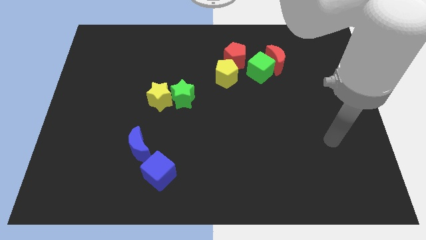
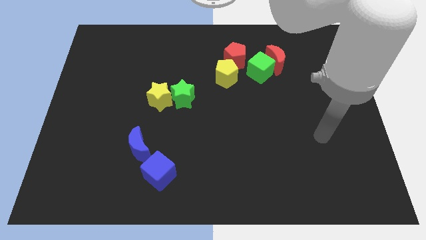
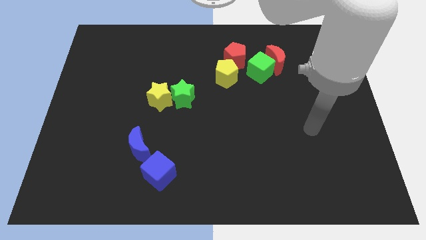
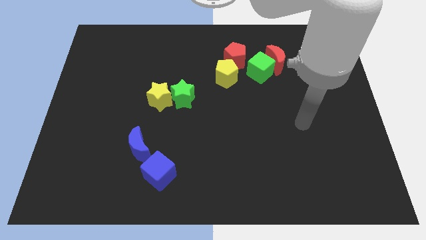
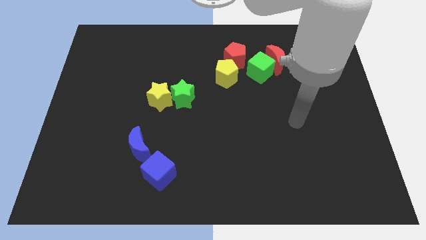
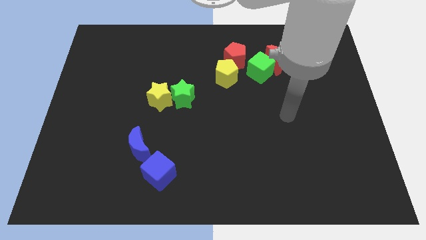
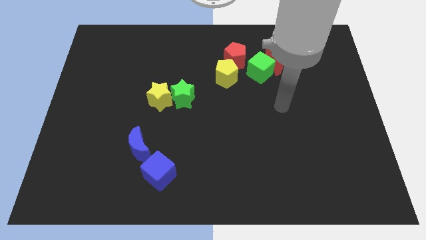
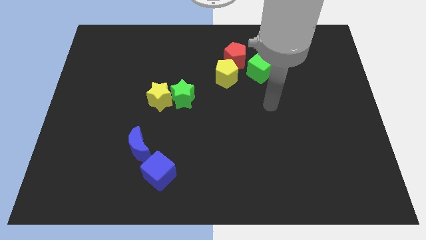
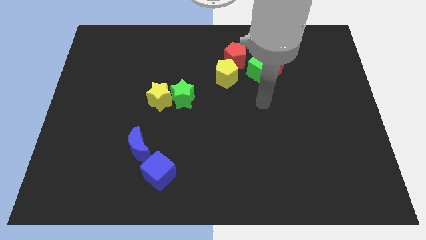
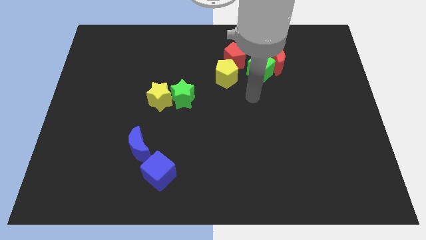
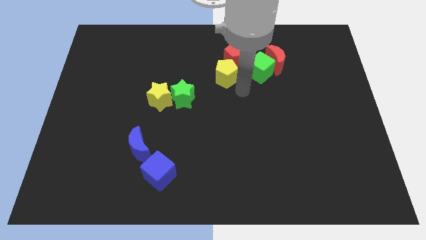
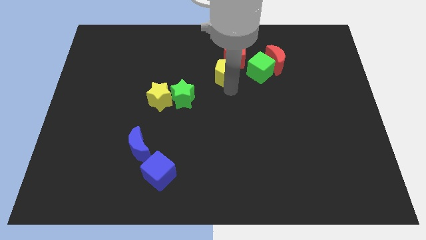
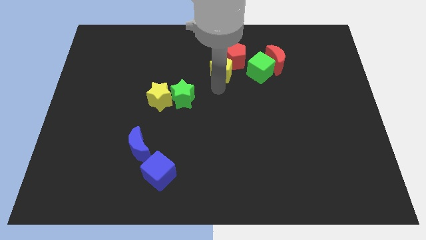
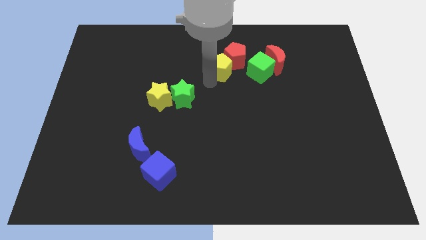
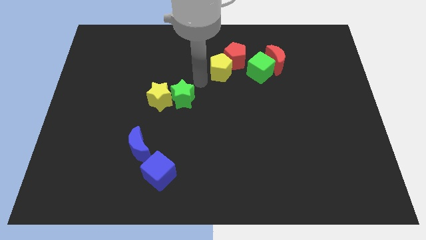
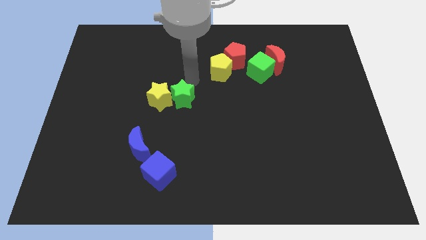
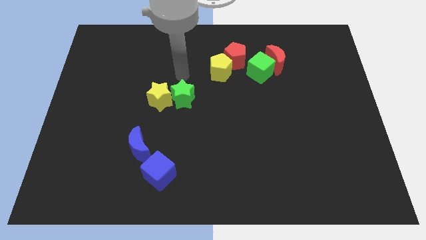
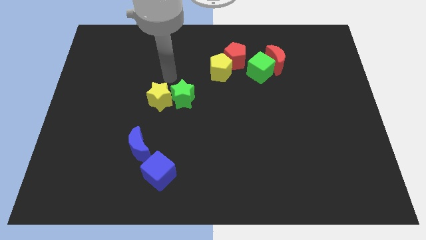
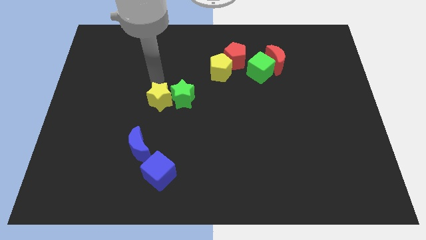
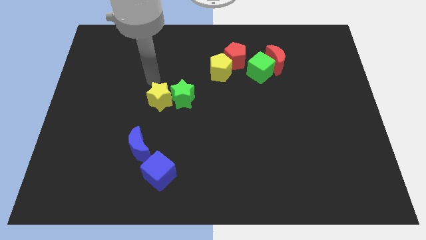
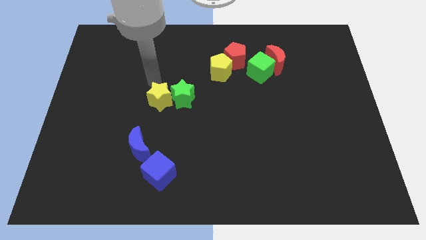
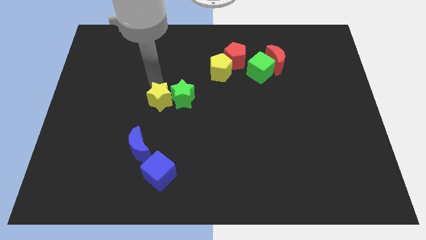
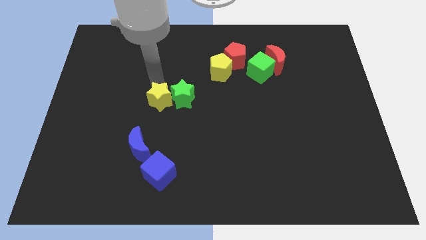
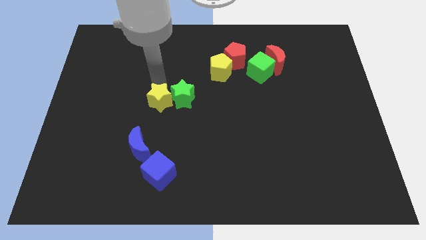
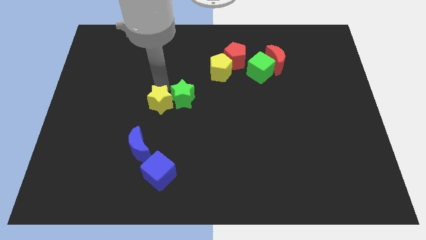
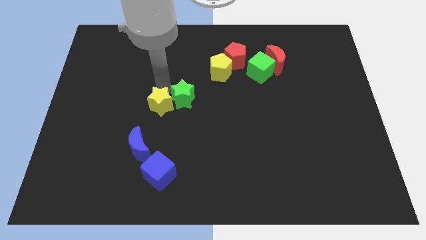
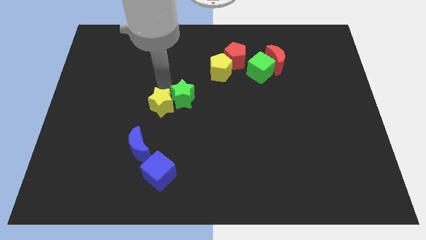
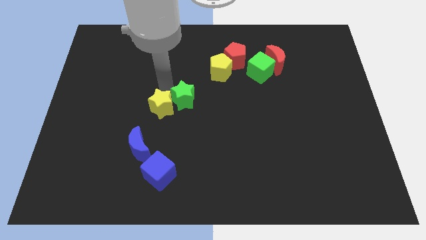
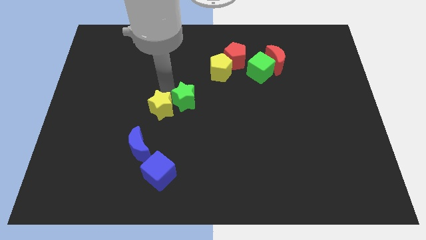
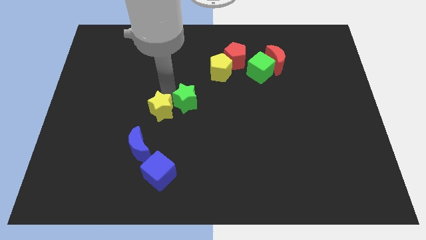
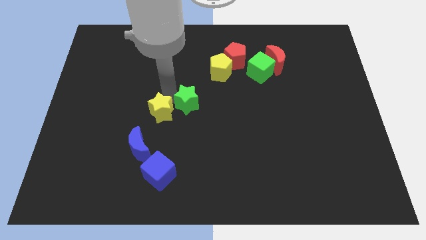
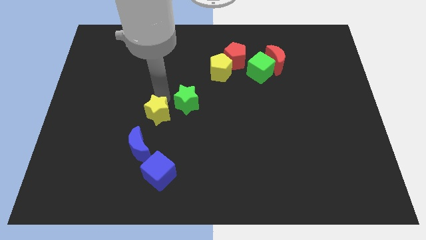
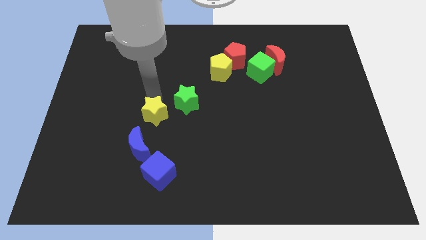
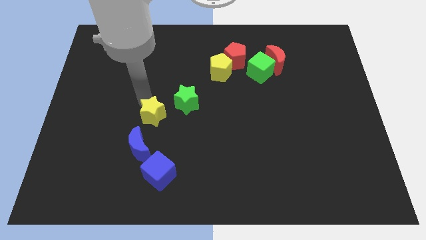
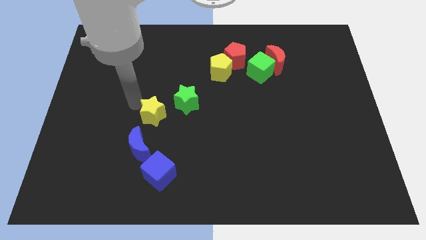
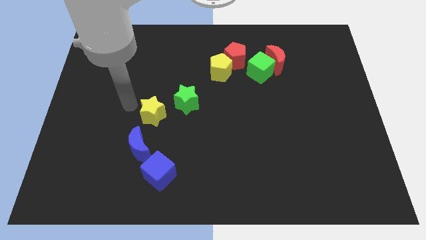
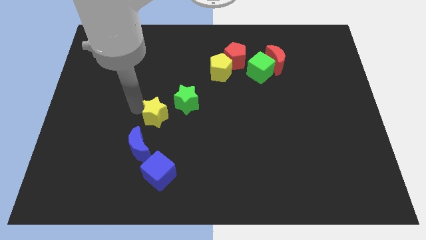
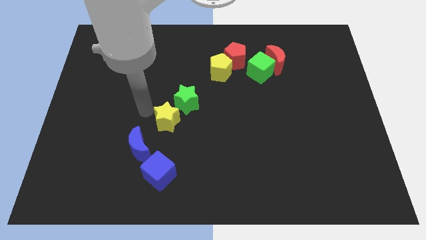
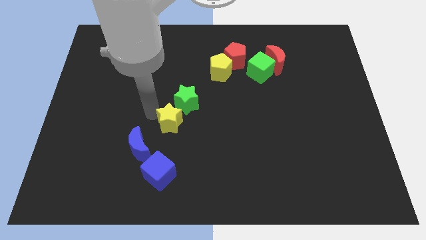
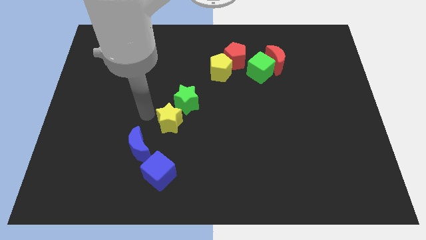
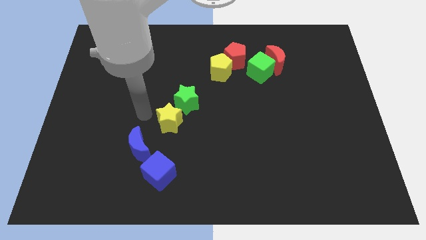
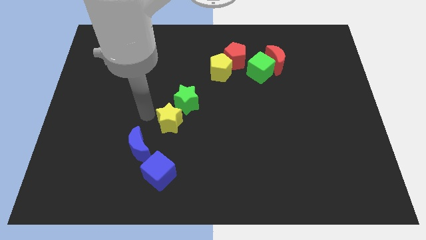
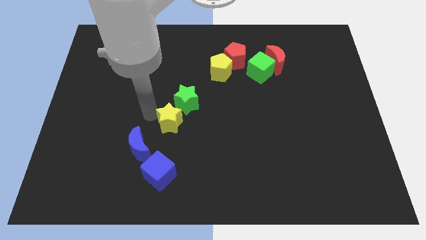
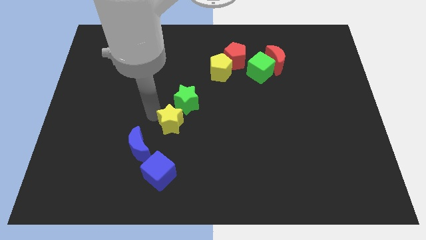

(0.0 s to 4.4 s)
push the yellow star down and to the right slightly

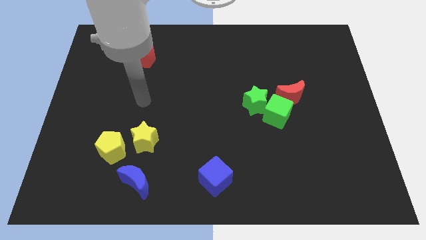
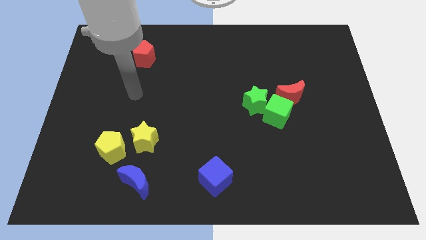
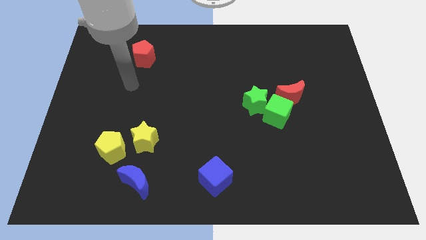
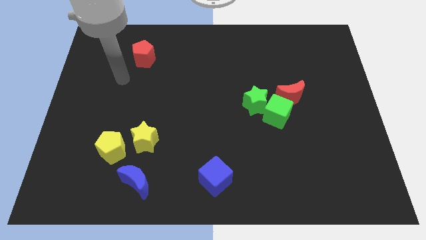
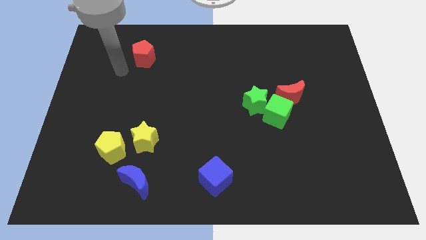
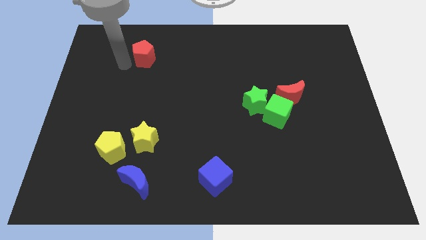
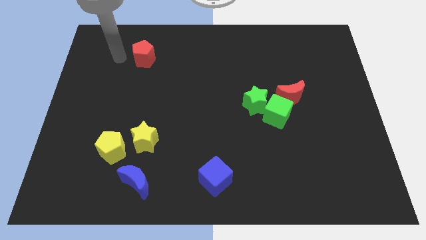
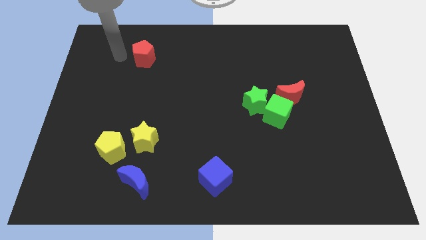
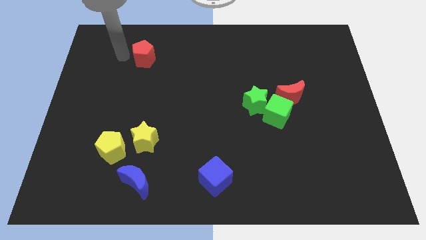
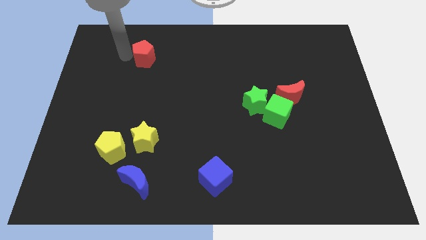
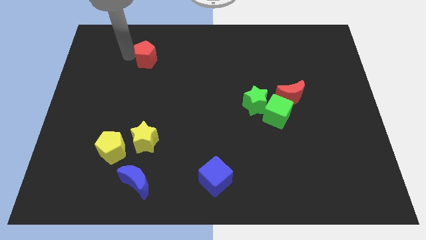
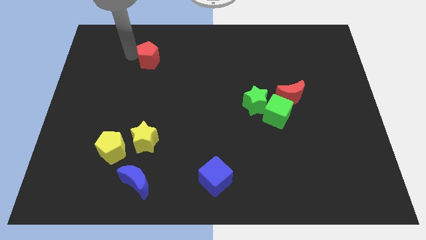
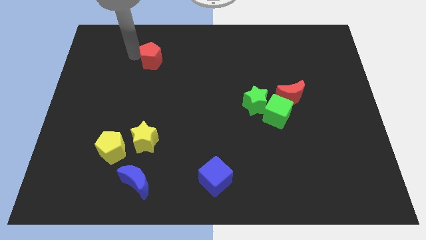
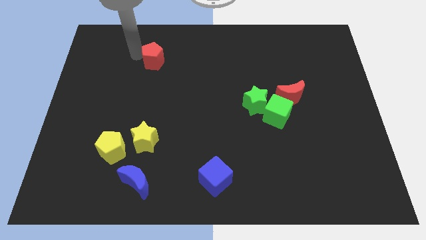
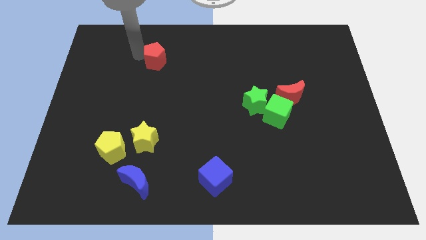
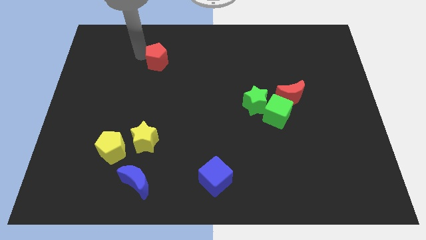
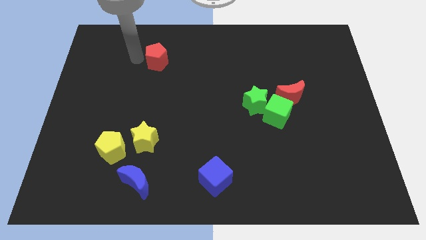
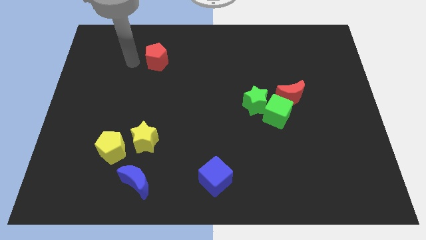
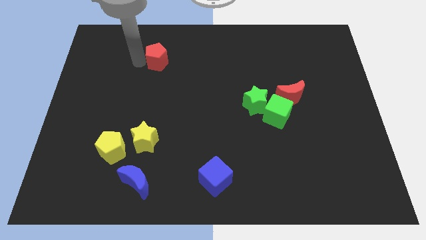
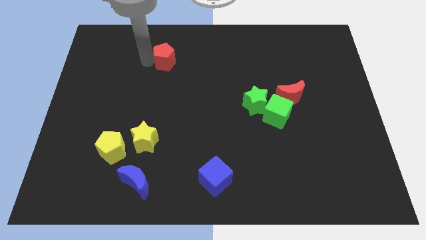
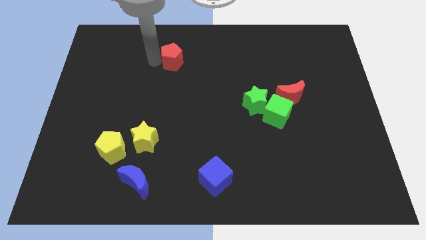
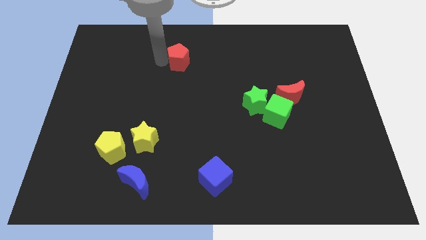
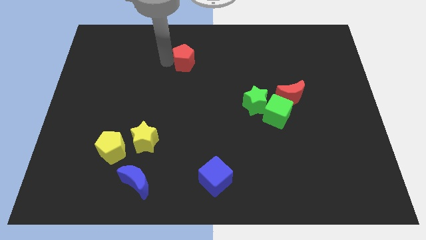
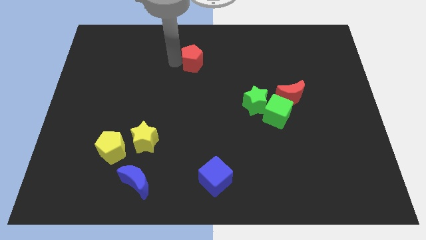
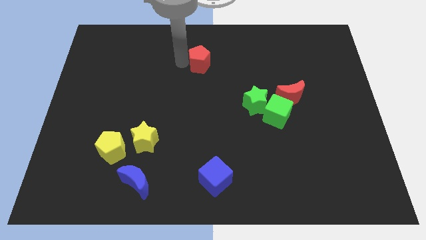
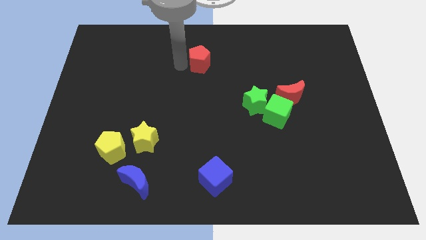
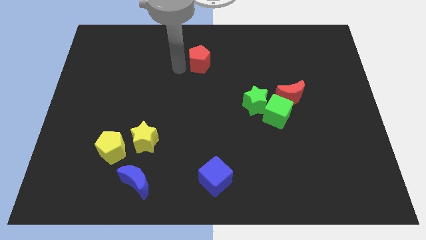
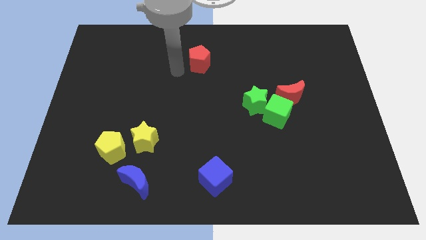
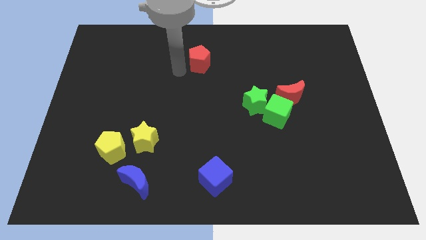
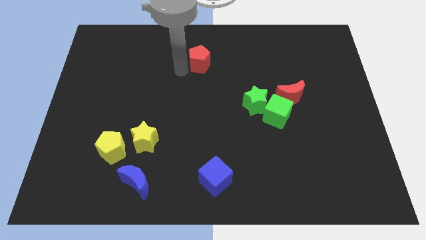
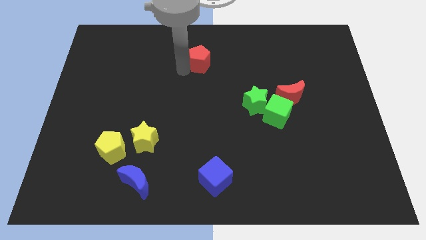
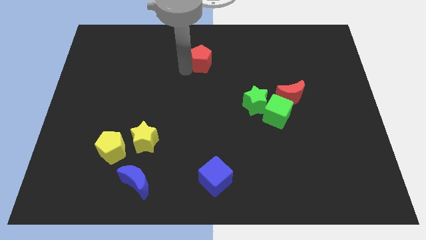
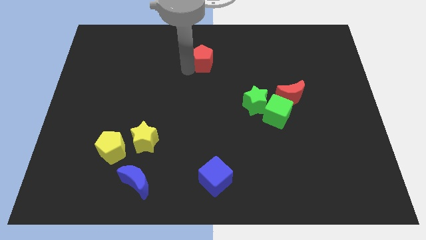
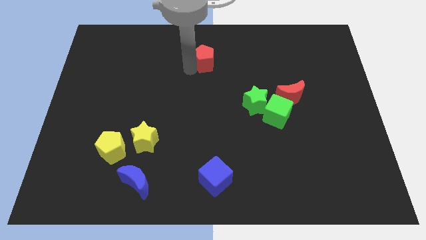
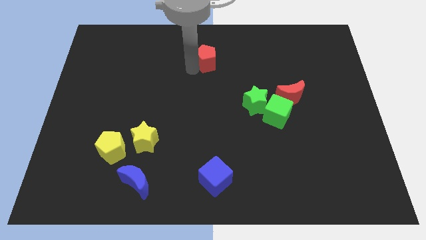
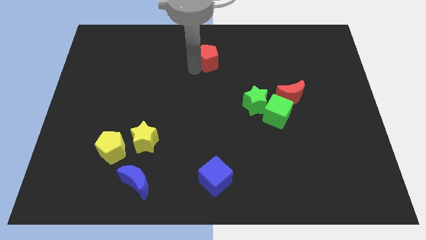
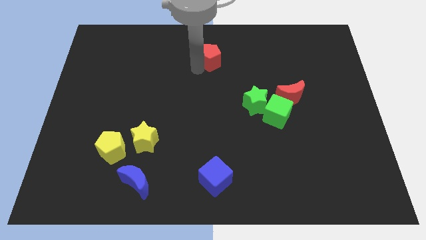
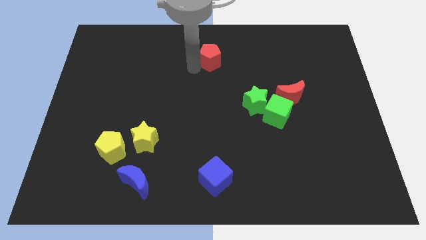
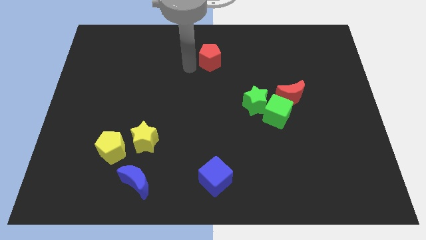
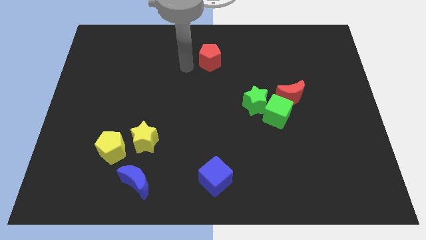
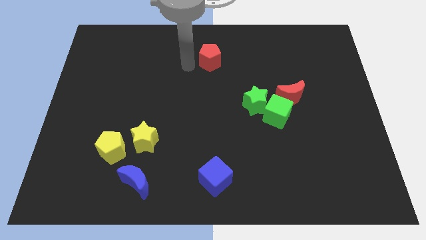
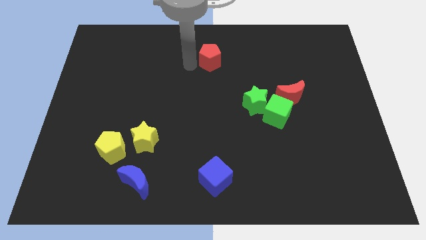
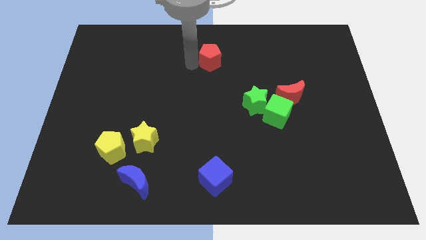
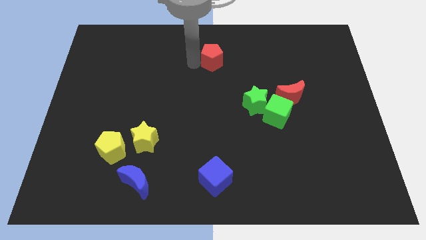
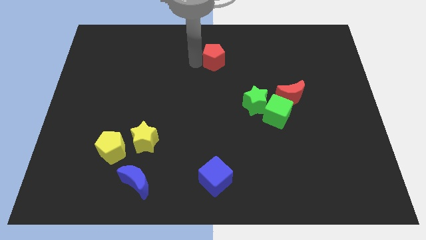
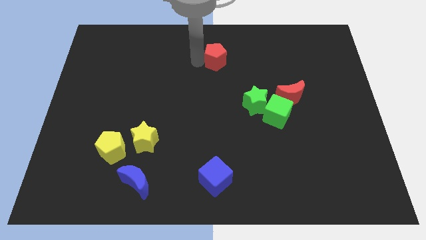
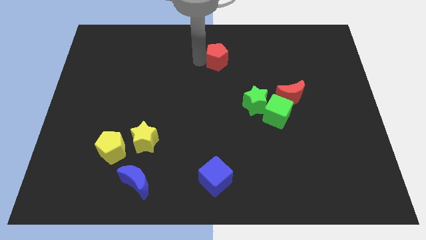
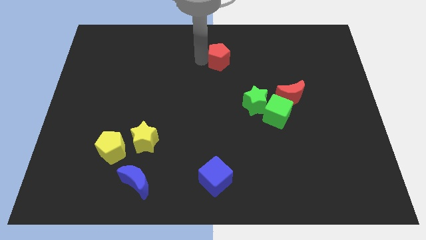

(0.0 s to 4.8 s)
push the red pentagon to the right
